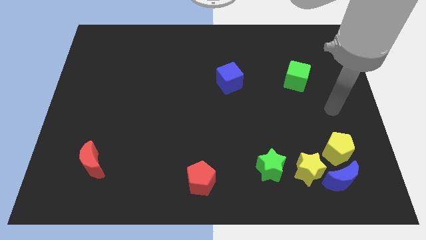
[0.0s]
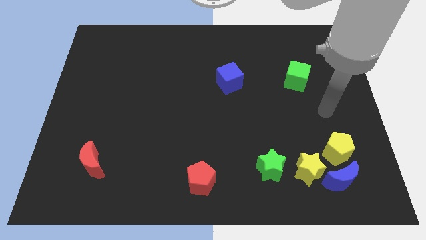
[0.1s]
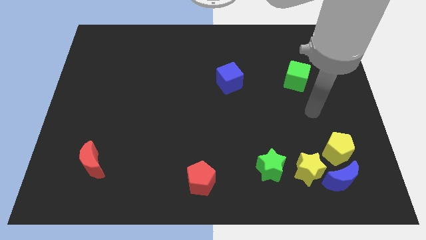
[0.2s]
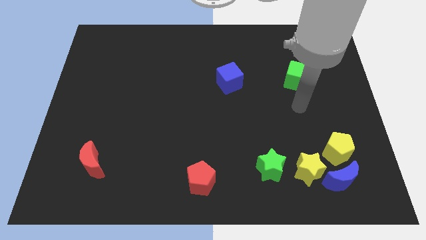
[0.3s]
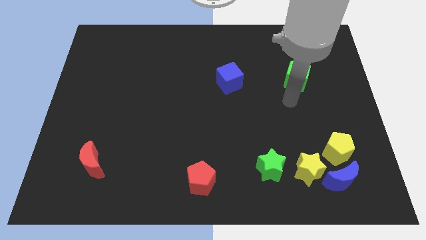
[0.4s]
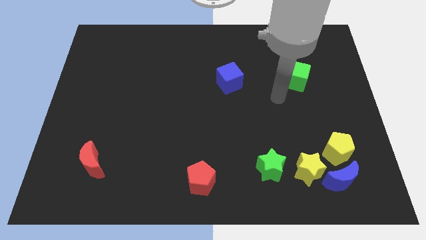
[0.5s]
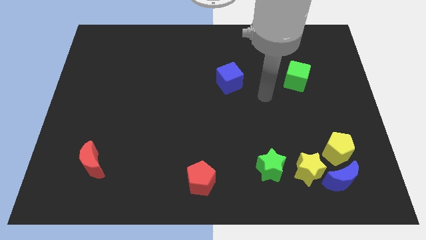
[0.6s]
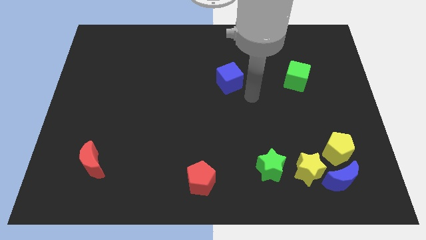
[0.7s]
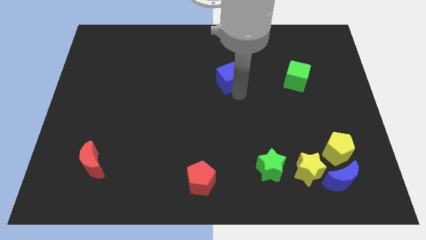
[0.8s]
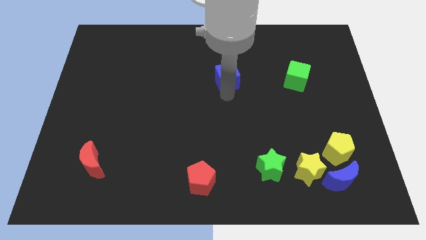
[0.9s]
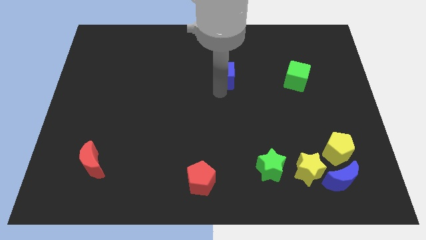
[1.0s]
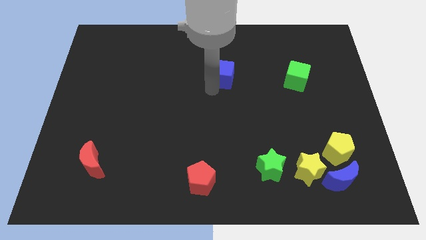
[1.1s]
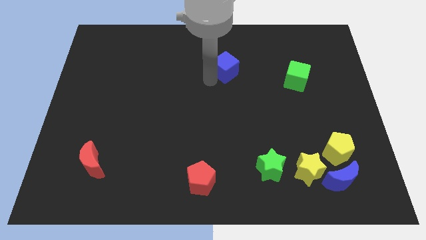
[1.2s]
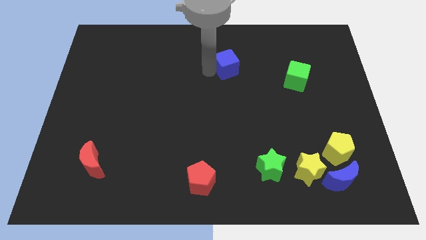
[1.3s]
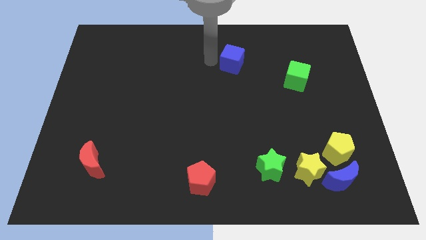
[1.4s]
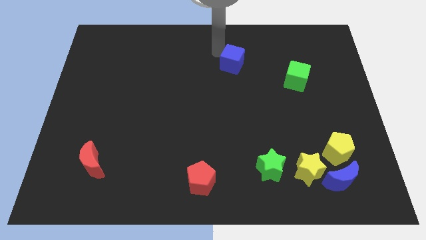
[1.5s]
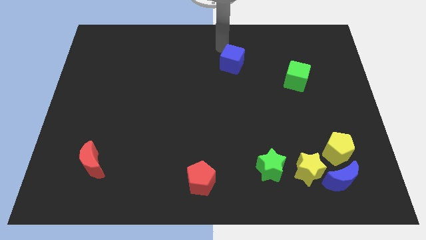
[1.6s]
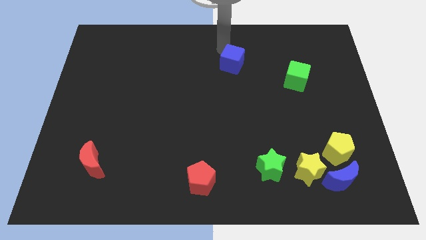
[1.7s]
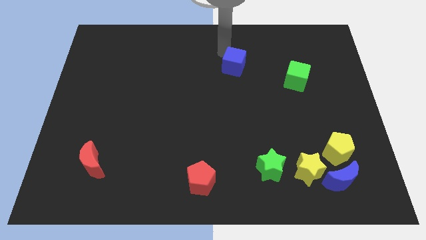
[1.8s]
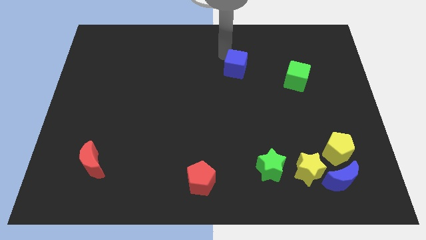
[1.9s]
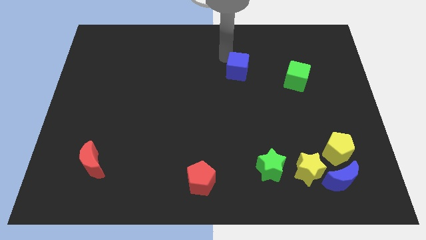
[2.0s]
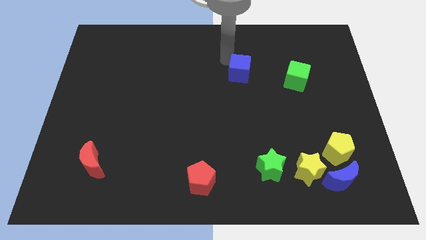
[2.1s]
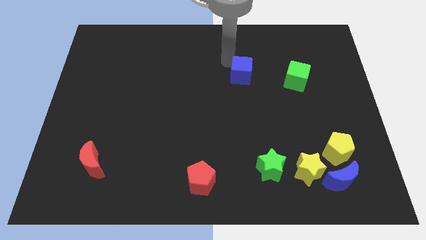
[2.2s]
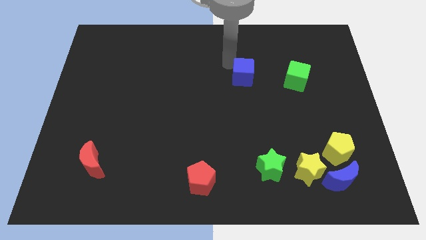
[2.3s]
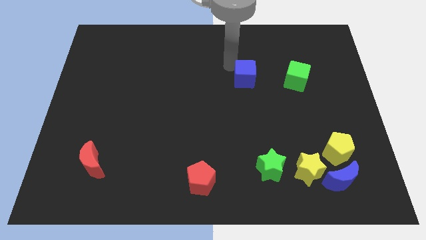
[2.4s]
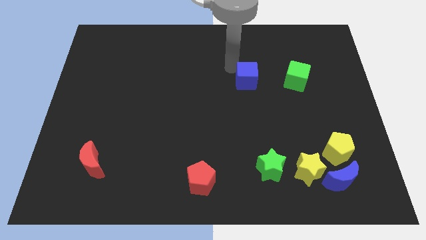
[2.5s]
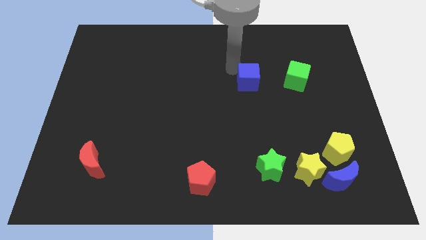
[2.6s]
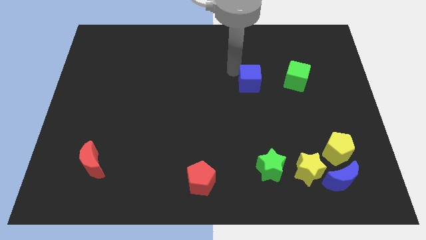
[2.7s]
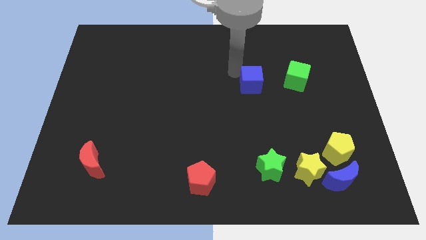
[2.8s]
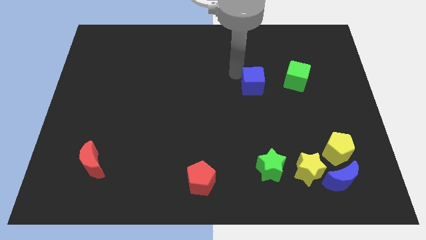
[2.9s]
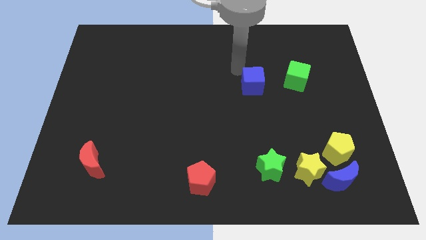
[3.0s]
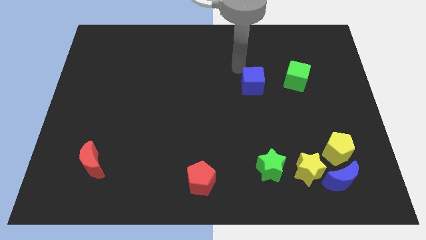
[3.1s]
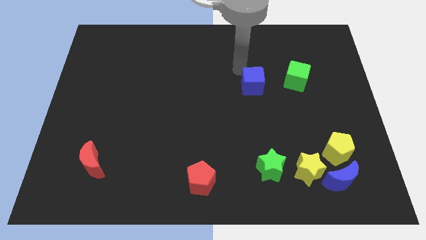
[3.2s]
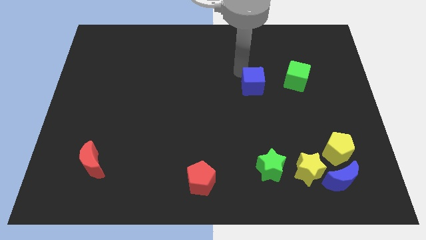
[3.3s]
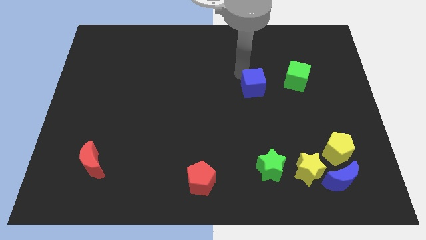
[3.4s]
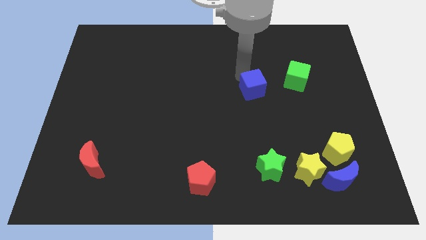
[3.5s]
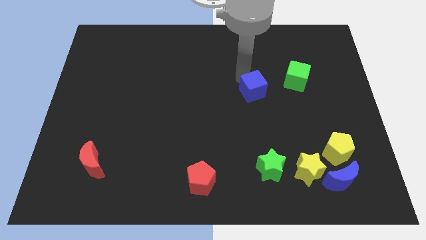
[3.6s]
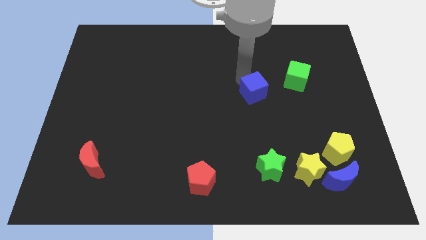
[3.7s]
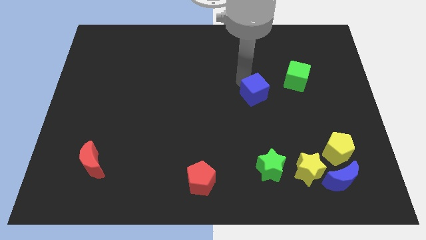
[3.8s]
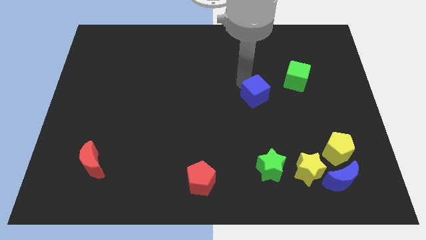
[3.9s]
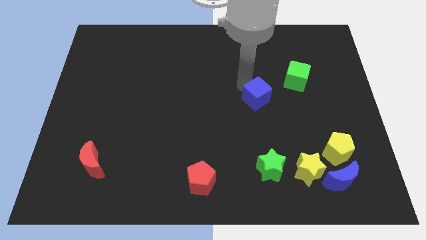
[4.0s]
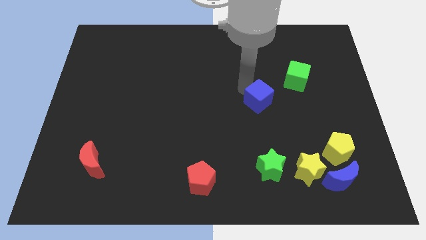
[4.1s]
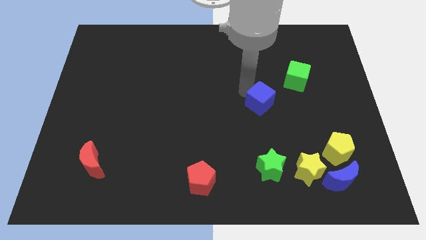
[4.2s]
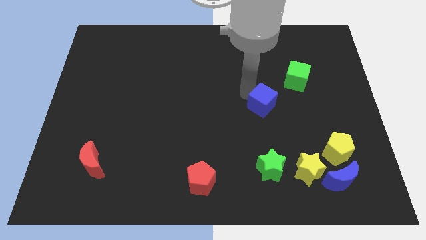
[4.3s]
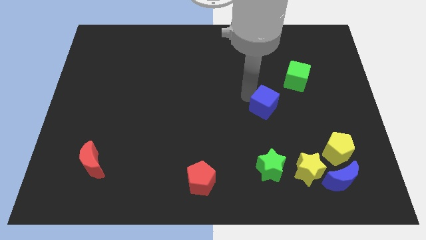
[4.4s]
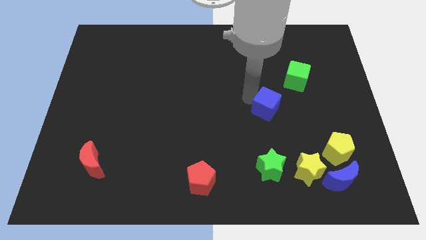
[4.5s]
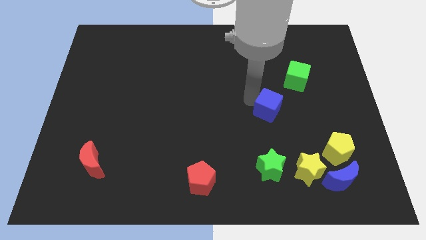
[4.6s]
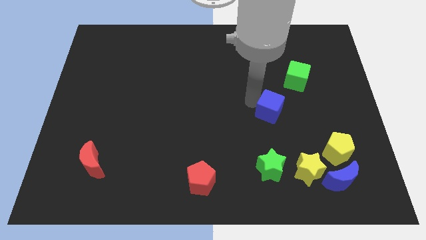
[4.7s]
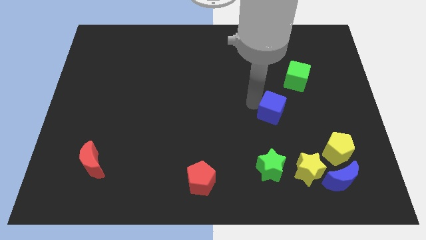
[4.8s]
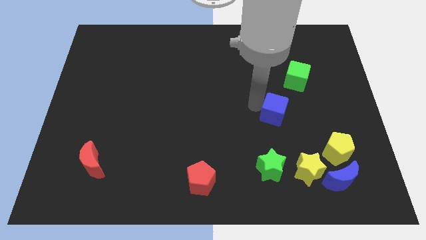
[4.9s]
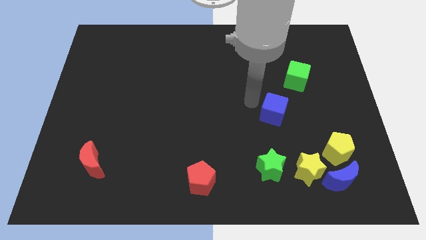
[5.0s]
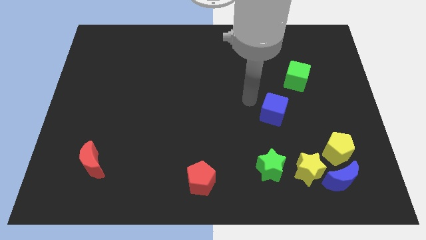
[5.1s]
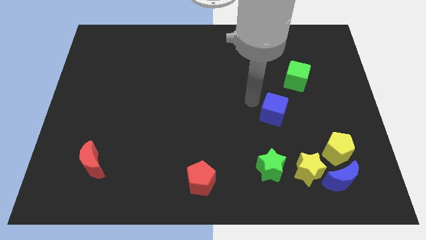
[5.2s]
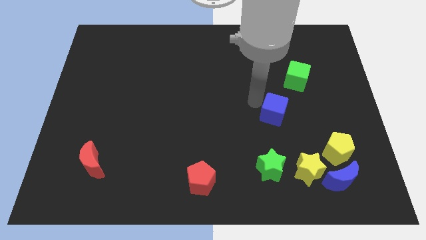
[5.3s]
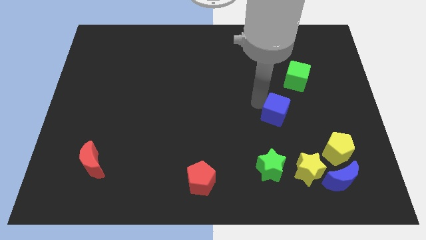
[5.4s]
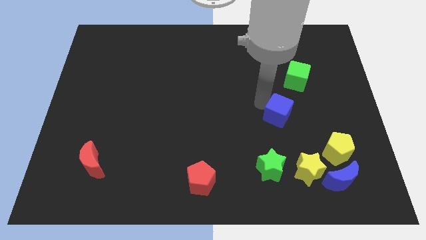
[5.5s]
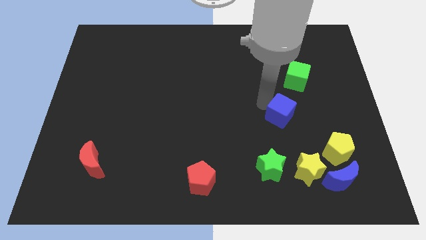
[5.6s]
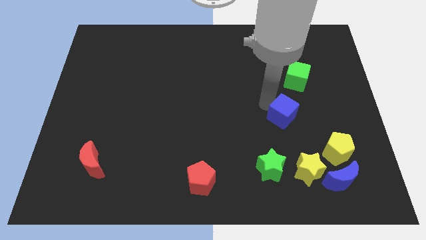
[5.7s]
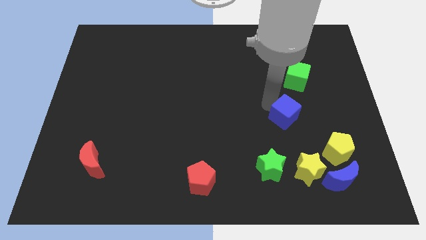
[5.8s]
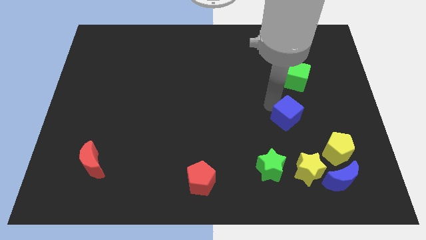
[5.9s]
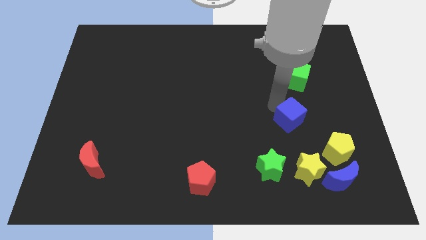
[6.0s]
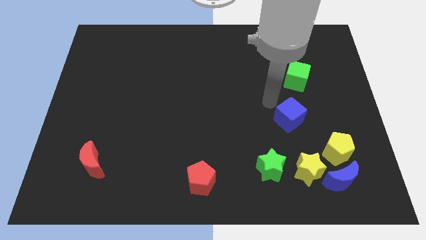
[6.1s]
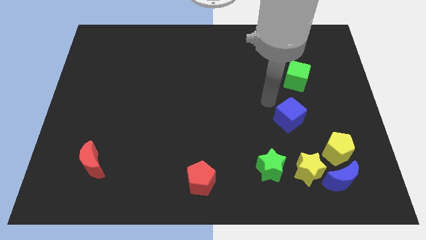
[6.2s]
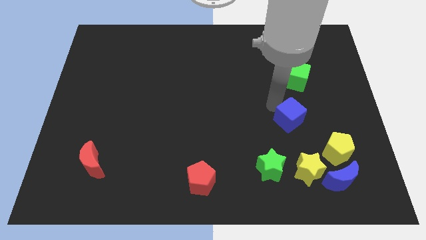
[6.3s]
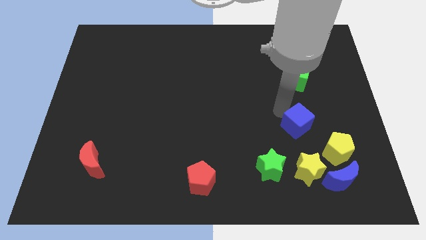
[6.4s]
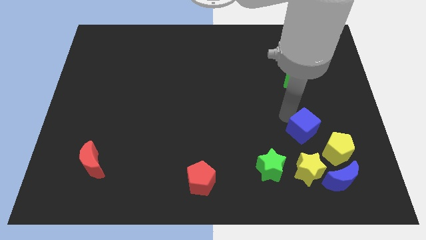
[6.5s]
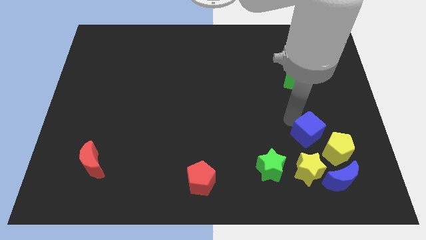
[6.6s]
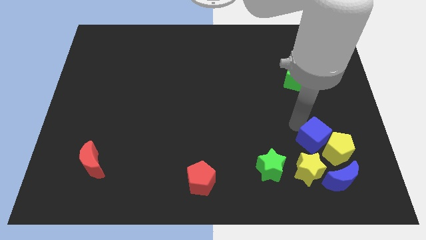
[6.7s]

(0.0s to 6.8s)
push the blue cube next to the yellow pentagon
